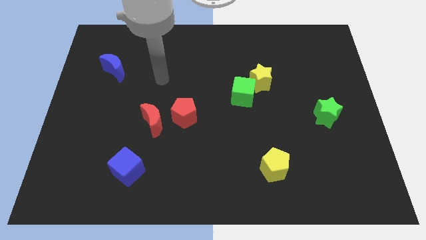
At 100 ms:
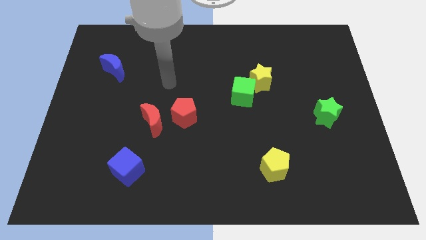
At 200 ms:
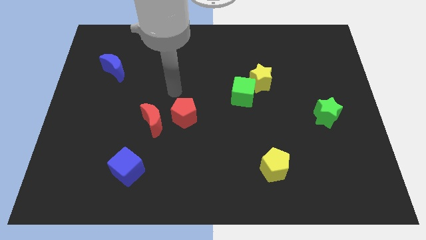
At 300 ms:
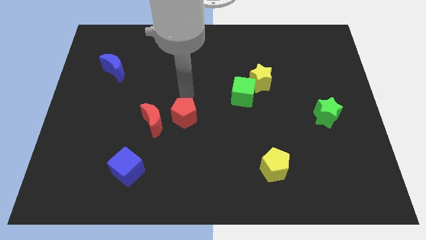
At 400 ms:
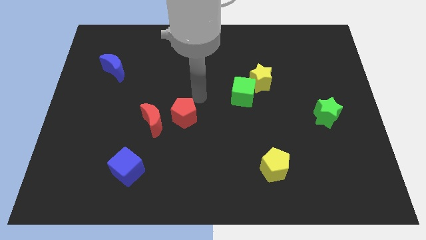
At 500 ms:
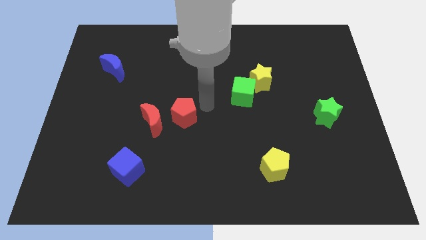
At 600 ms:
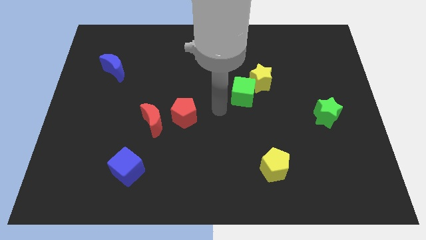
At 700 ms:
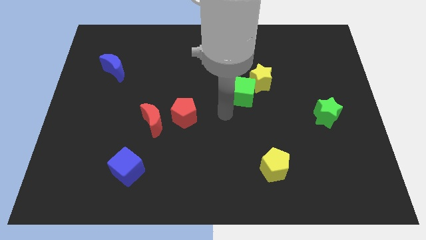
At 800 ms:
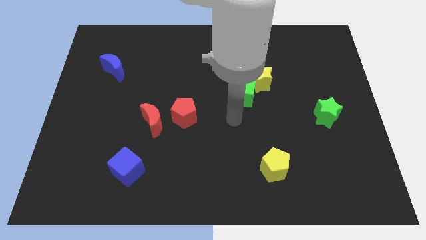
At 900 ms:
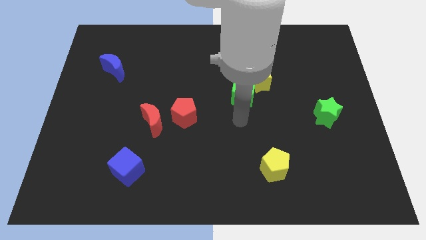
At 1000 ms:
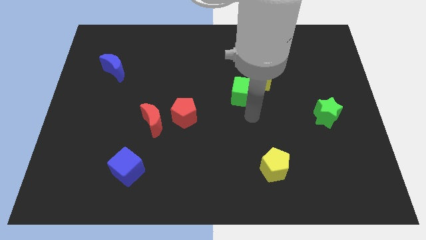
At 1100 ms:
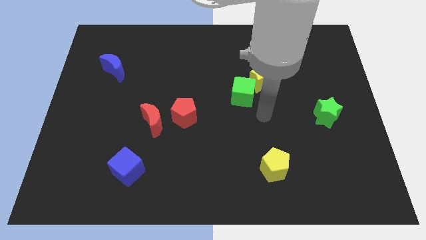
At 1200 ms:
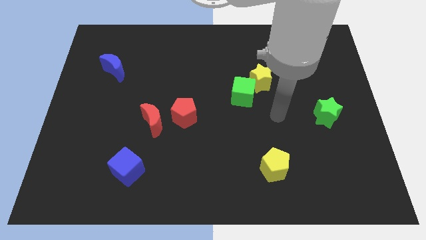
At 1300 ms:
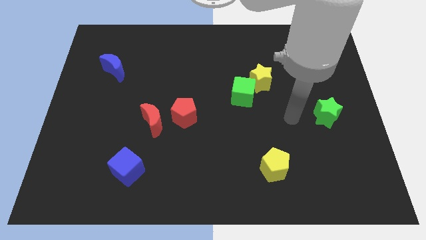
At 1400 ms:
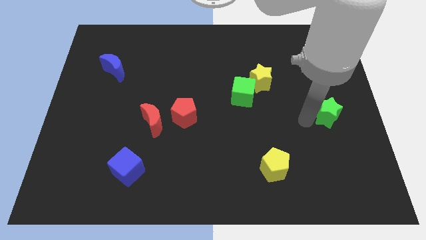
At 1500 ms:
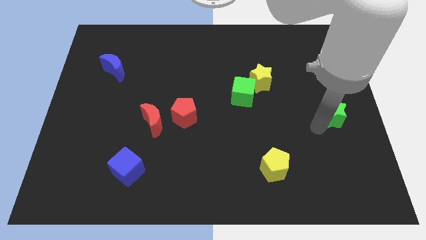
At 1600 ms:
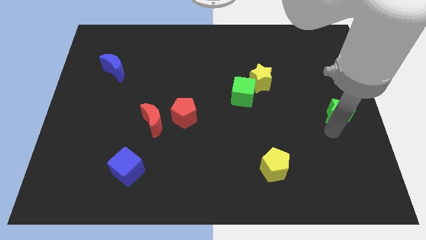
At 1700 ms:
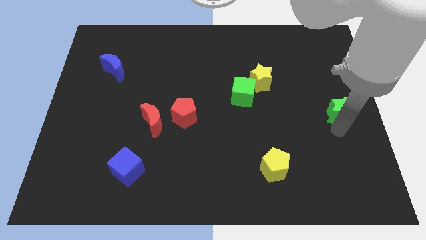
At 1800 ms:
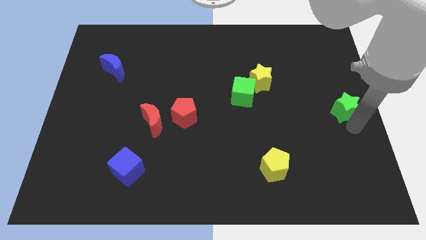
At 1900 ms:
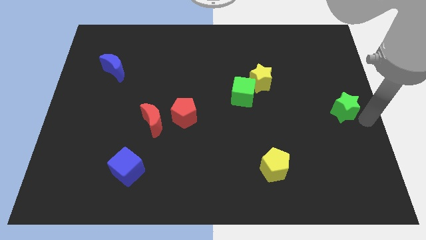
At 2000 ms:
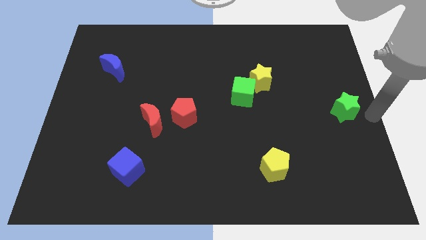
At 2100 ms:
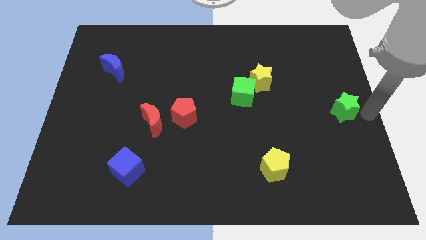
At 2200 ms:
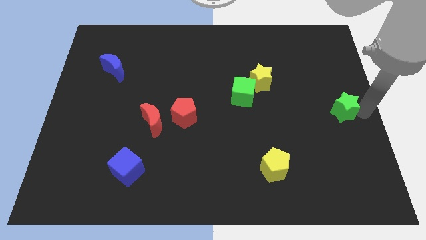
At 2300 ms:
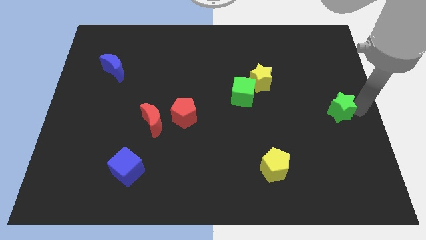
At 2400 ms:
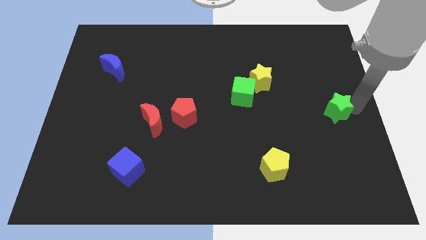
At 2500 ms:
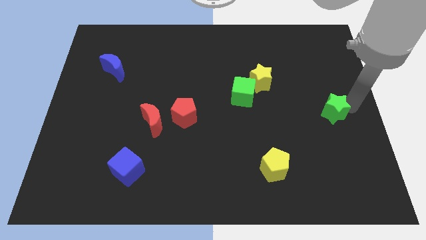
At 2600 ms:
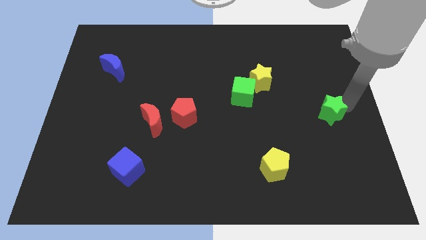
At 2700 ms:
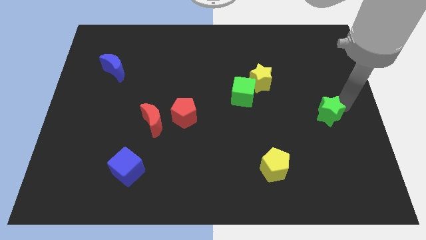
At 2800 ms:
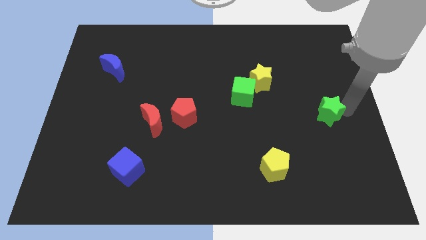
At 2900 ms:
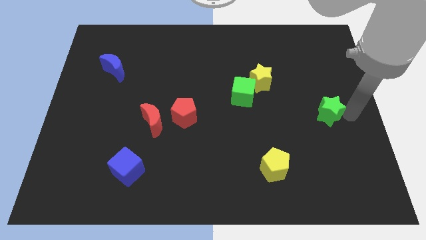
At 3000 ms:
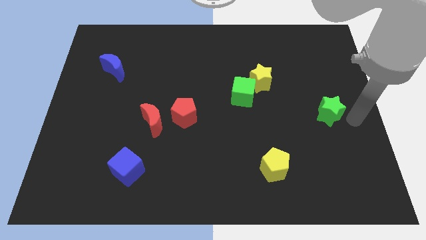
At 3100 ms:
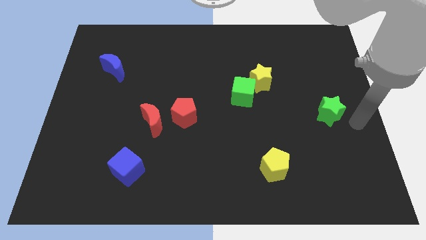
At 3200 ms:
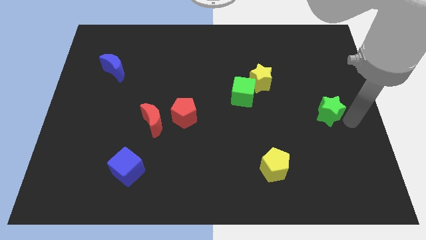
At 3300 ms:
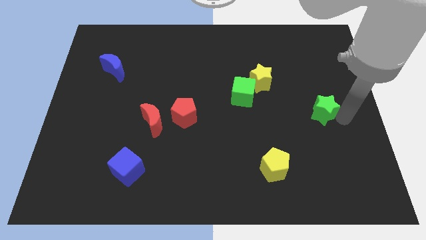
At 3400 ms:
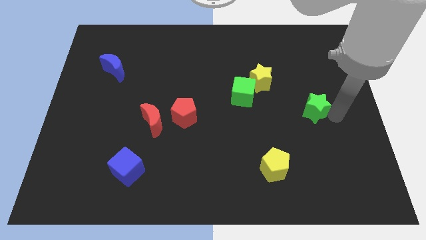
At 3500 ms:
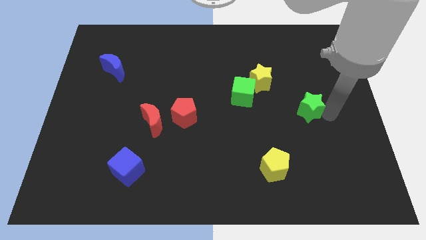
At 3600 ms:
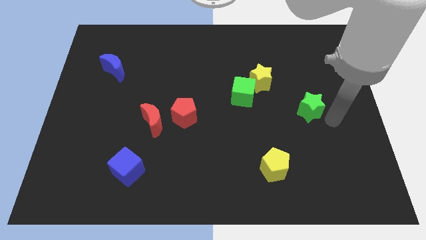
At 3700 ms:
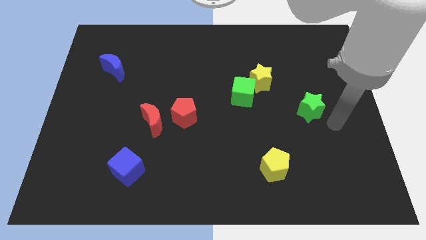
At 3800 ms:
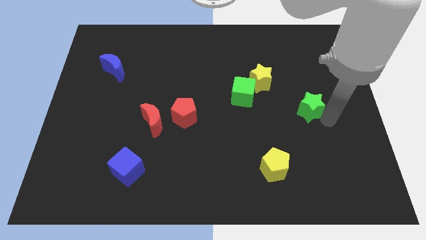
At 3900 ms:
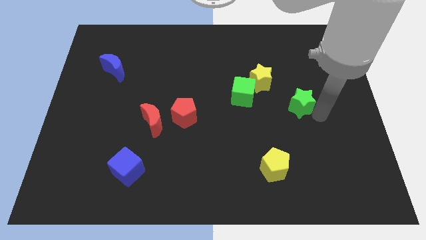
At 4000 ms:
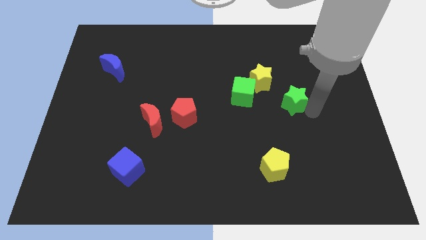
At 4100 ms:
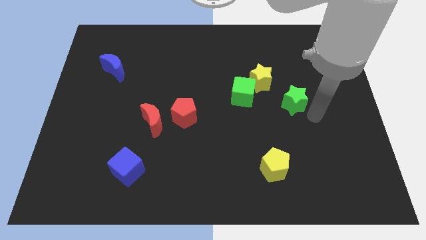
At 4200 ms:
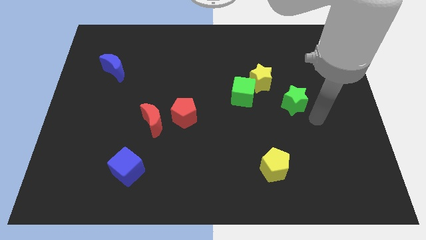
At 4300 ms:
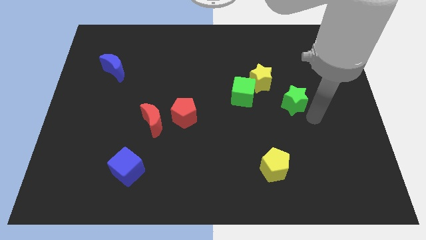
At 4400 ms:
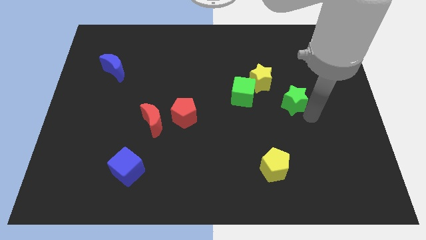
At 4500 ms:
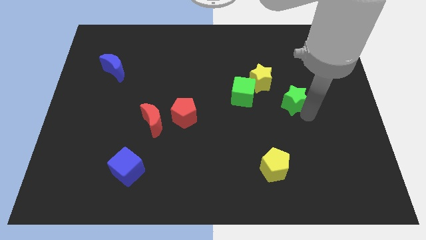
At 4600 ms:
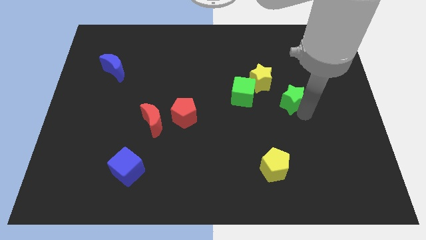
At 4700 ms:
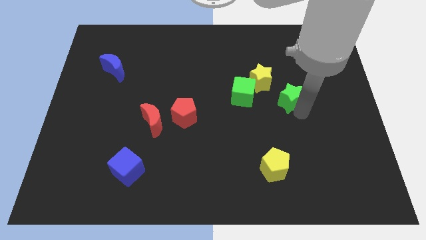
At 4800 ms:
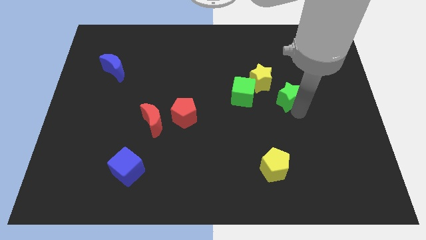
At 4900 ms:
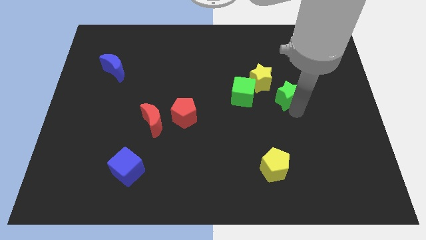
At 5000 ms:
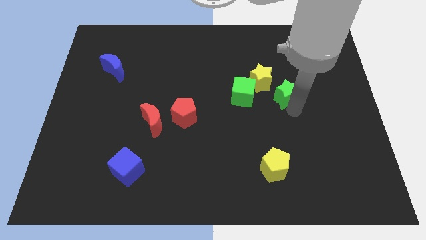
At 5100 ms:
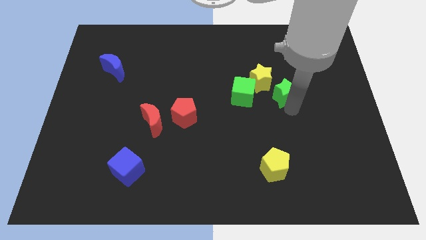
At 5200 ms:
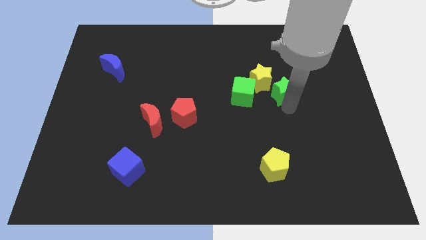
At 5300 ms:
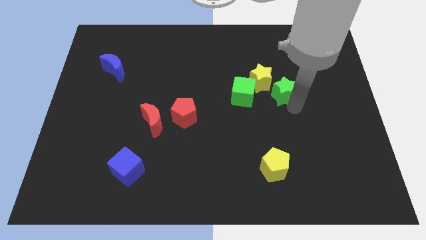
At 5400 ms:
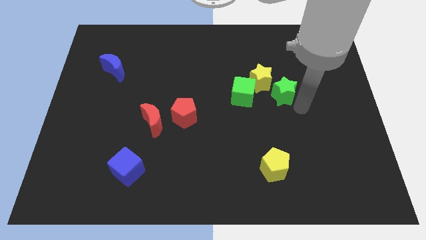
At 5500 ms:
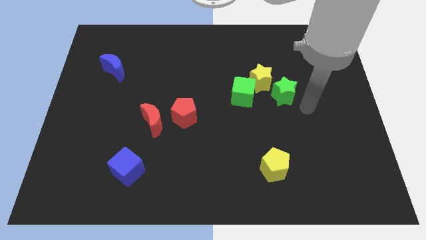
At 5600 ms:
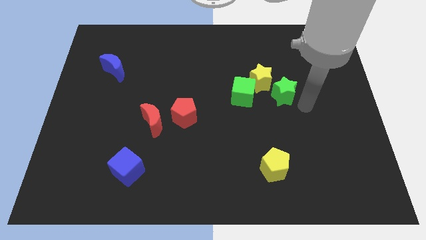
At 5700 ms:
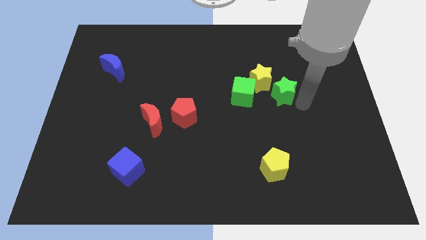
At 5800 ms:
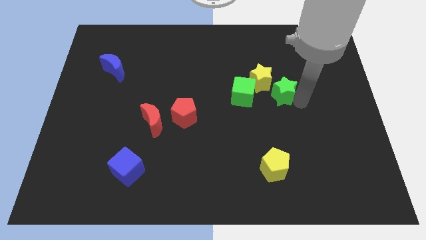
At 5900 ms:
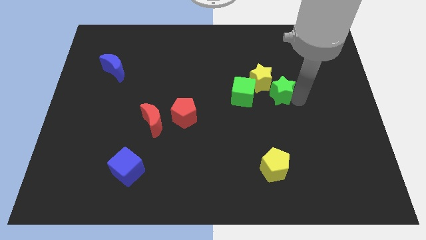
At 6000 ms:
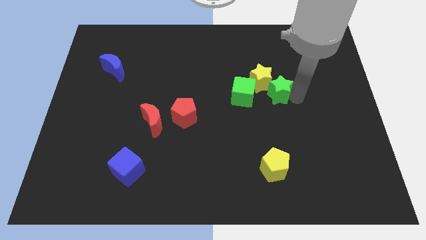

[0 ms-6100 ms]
slide the green star next to the yellow star

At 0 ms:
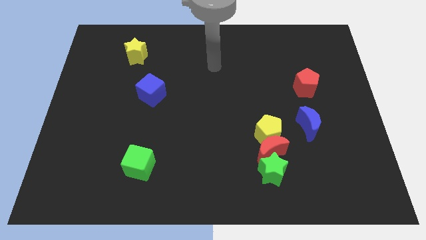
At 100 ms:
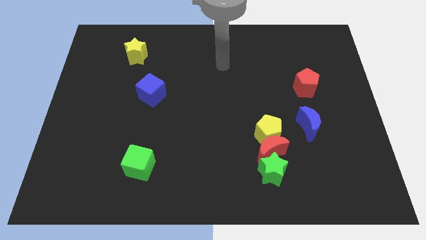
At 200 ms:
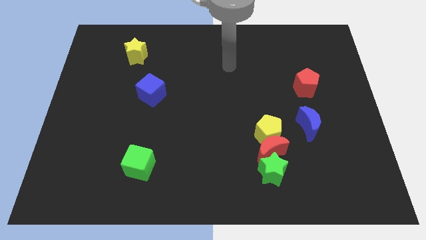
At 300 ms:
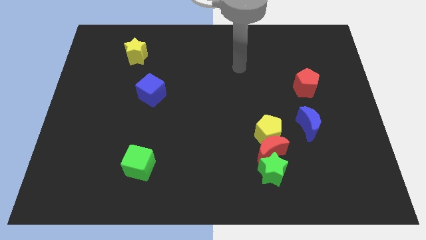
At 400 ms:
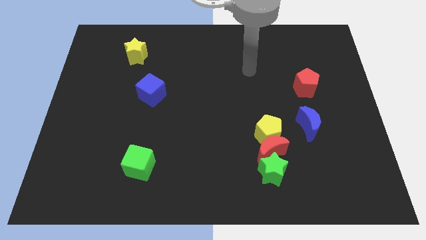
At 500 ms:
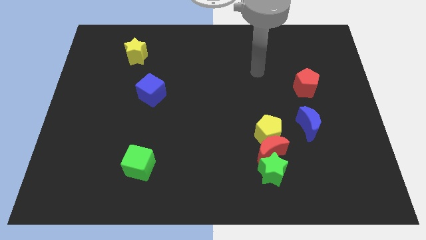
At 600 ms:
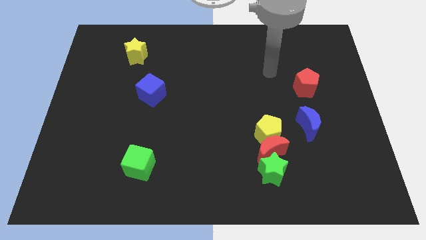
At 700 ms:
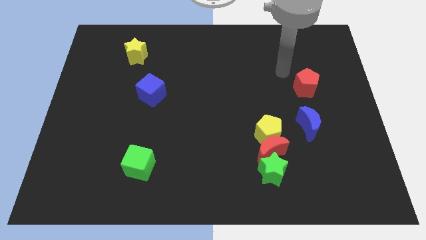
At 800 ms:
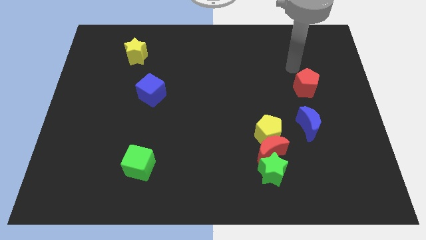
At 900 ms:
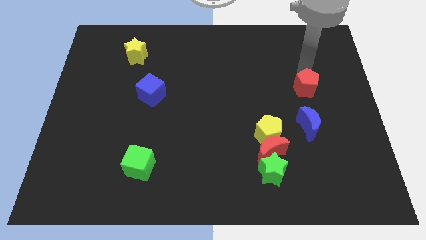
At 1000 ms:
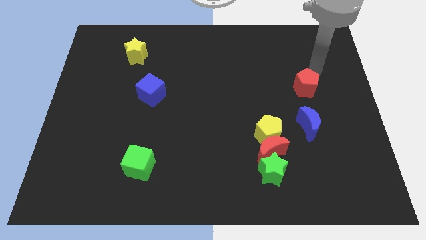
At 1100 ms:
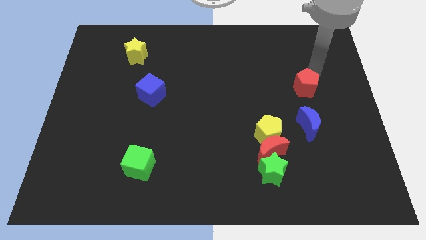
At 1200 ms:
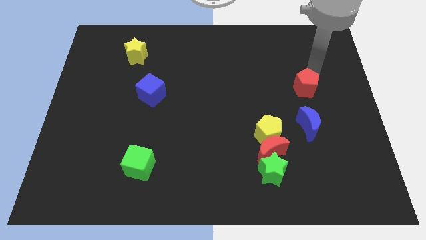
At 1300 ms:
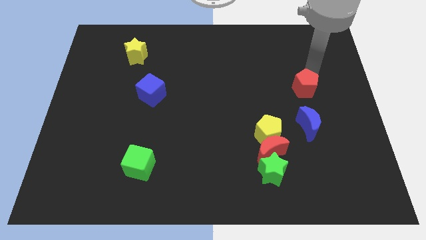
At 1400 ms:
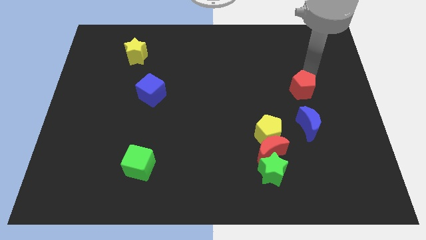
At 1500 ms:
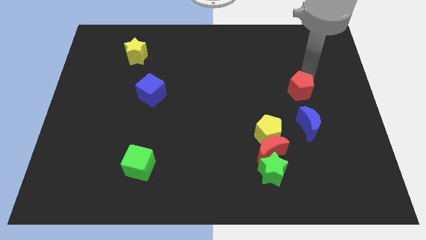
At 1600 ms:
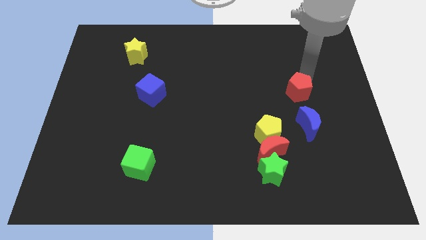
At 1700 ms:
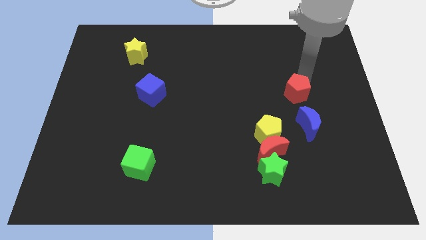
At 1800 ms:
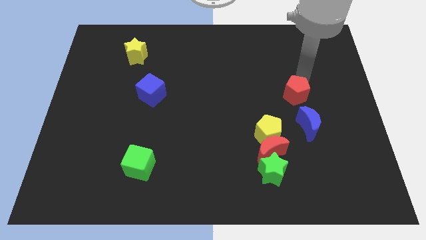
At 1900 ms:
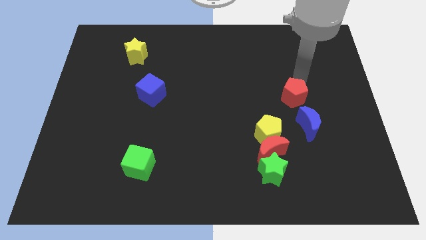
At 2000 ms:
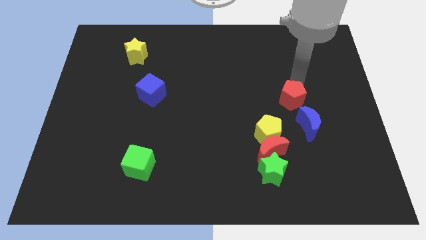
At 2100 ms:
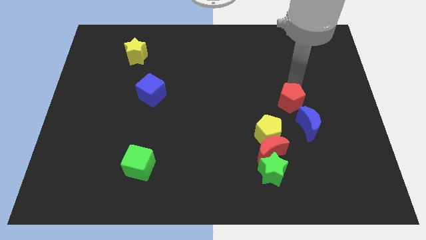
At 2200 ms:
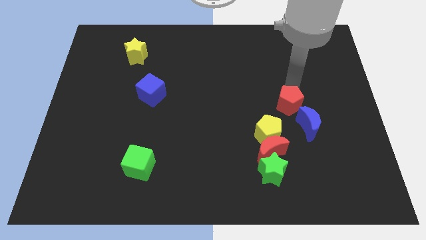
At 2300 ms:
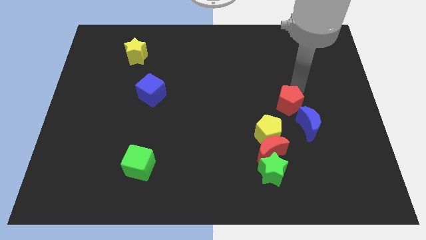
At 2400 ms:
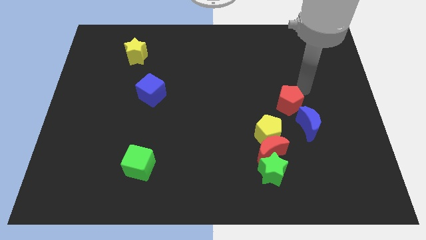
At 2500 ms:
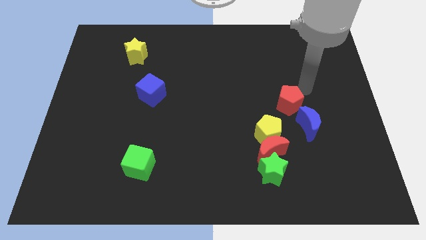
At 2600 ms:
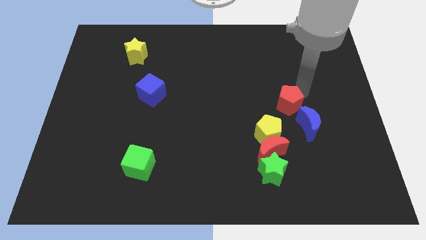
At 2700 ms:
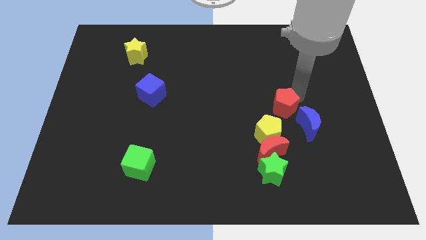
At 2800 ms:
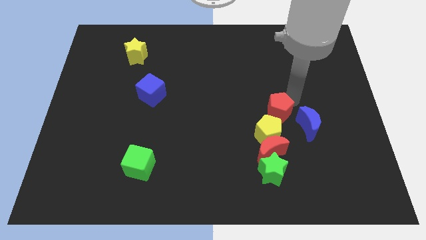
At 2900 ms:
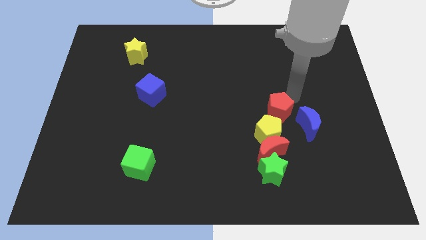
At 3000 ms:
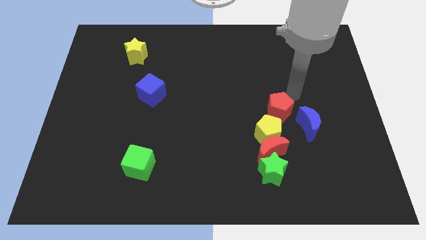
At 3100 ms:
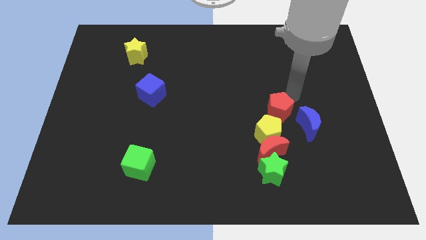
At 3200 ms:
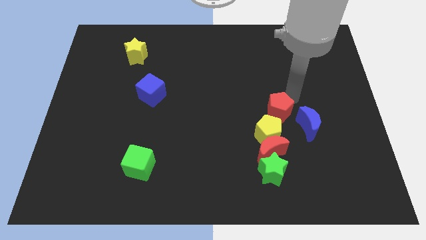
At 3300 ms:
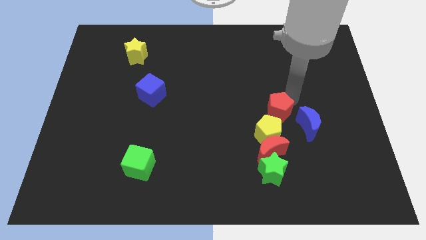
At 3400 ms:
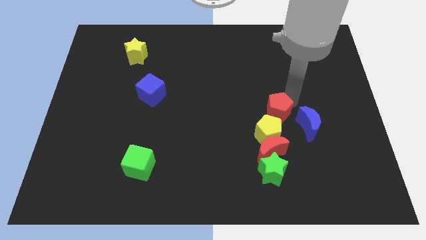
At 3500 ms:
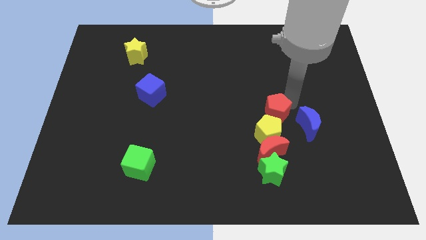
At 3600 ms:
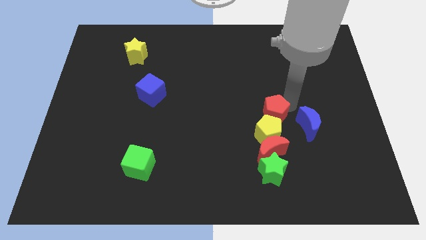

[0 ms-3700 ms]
put the red pentagon to the yellow pentagon
